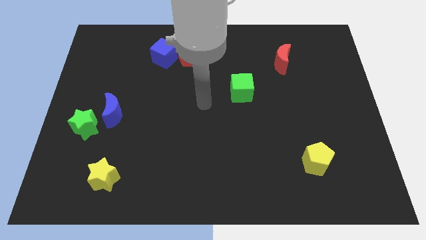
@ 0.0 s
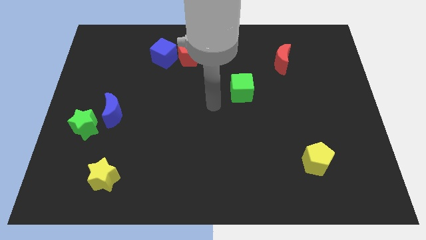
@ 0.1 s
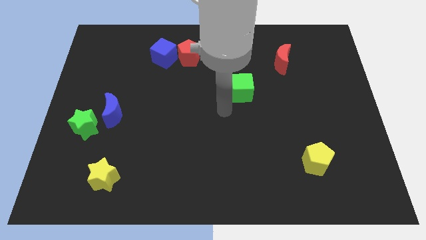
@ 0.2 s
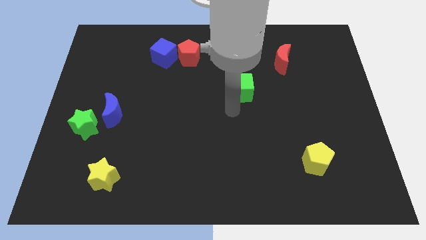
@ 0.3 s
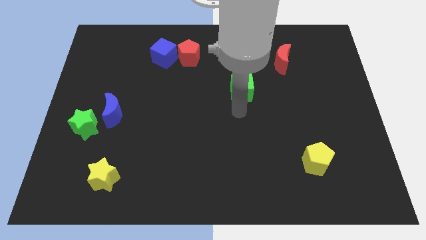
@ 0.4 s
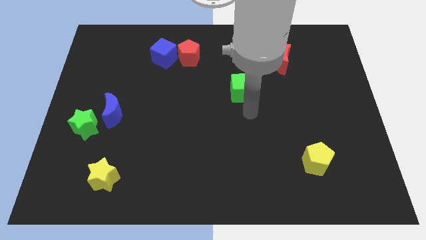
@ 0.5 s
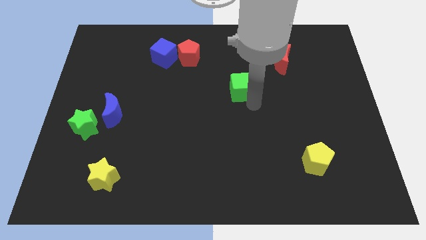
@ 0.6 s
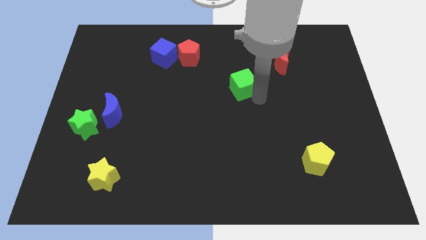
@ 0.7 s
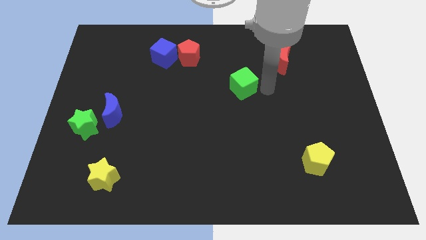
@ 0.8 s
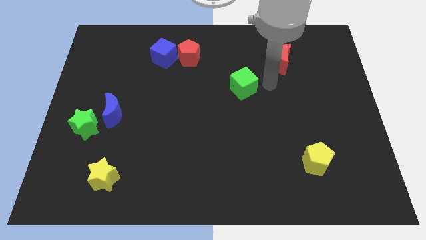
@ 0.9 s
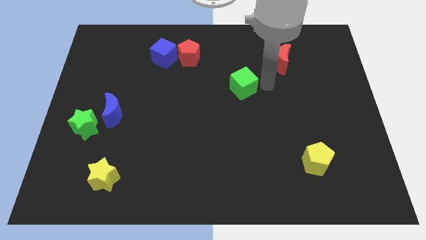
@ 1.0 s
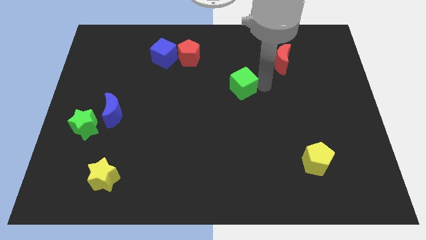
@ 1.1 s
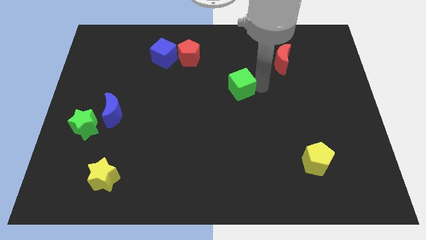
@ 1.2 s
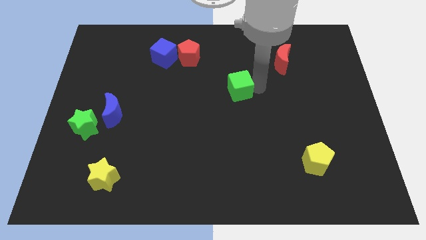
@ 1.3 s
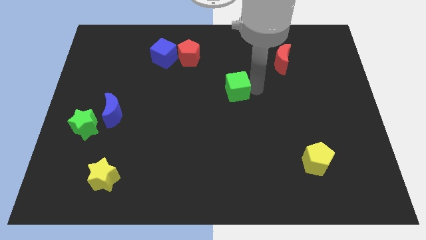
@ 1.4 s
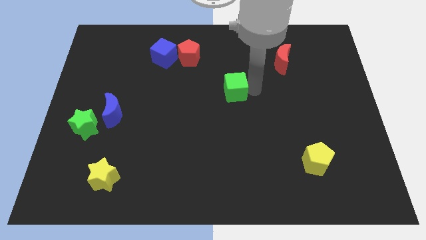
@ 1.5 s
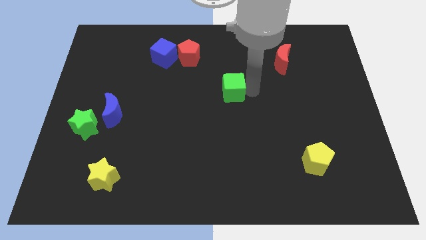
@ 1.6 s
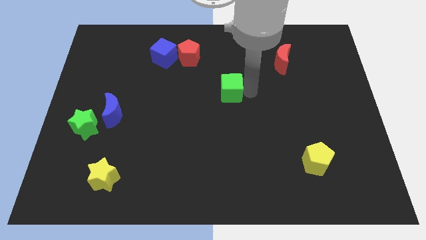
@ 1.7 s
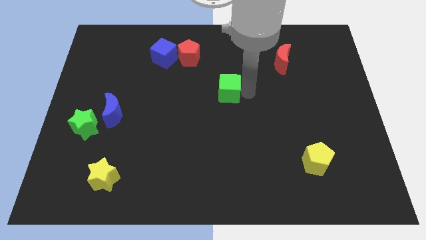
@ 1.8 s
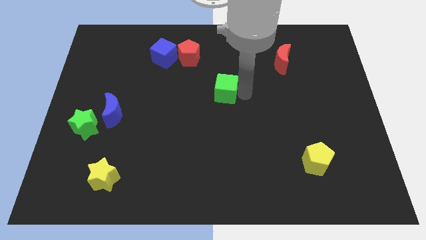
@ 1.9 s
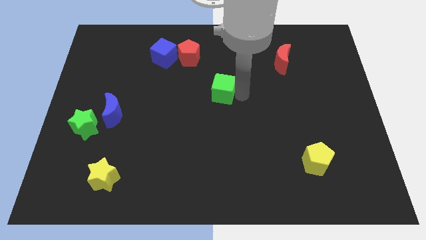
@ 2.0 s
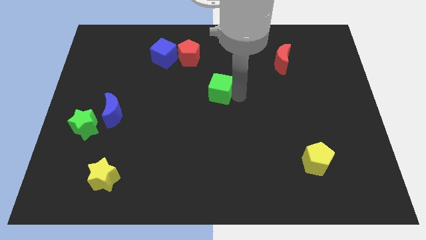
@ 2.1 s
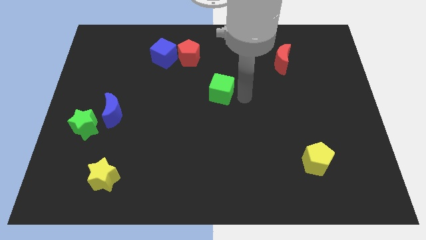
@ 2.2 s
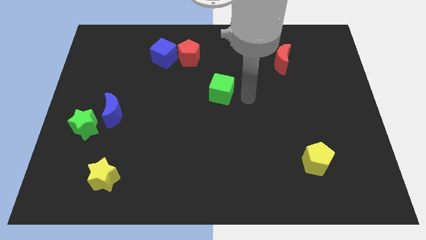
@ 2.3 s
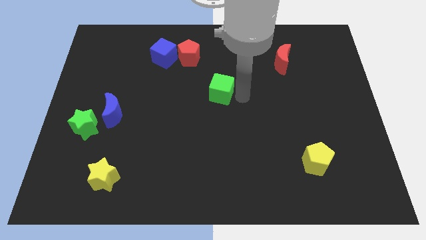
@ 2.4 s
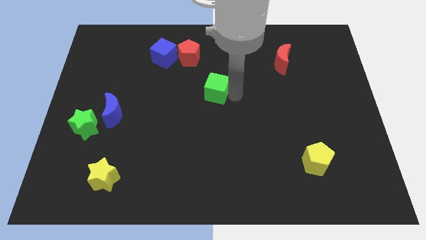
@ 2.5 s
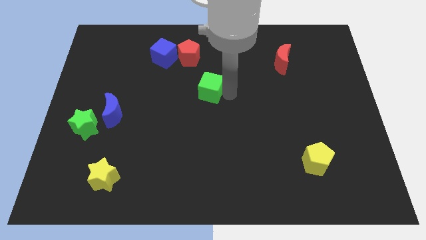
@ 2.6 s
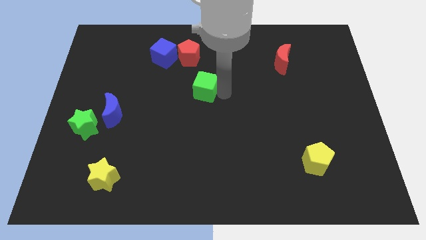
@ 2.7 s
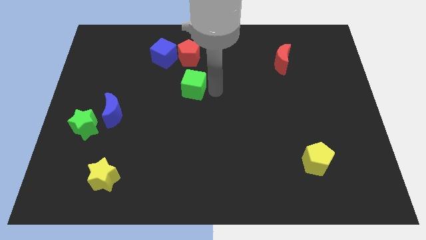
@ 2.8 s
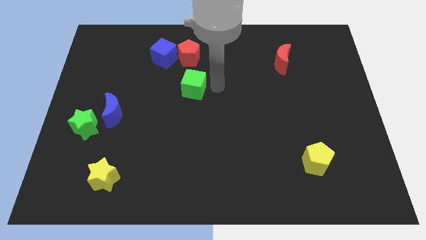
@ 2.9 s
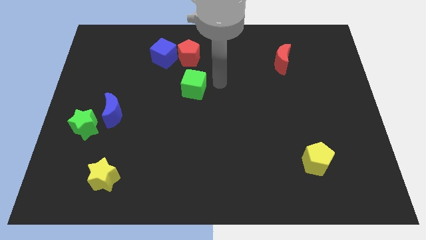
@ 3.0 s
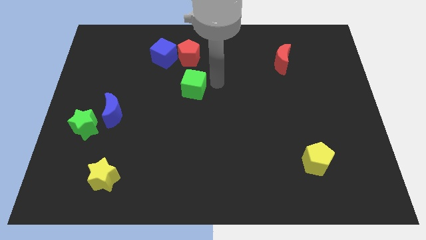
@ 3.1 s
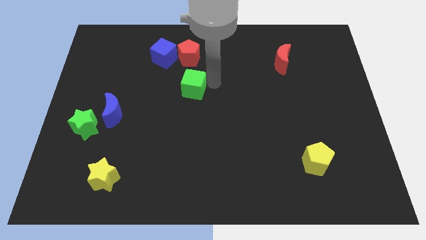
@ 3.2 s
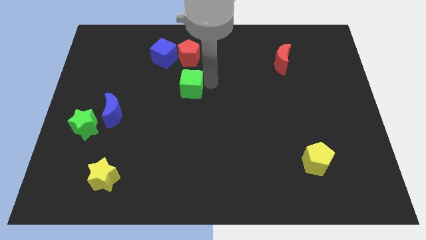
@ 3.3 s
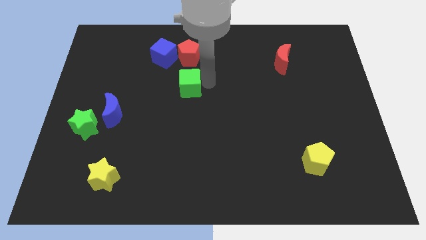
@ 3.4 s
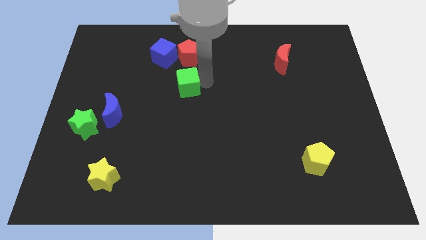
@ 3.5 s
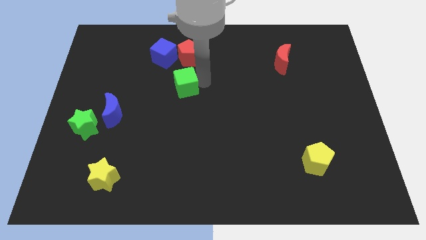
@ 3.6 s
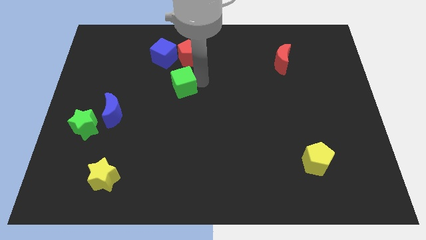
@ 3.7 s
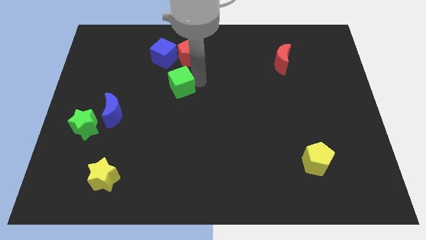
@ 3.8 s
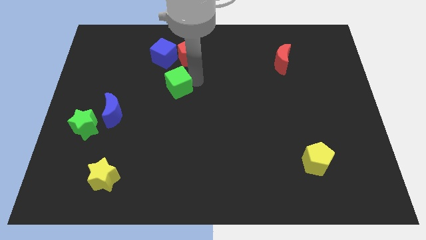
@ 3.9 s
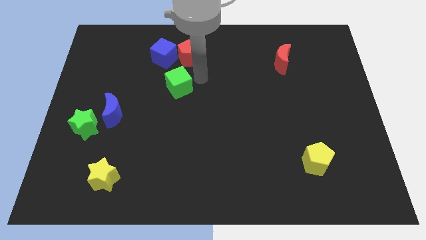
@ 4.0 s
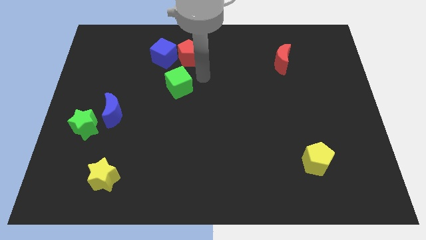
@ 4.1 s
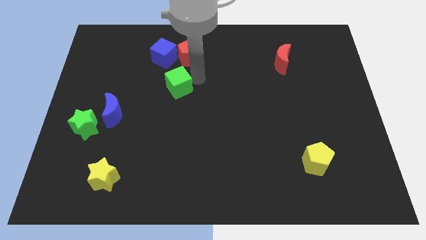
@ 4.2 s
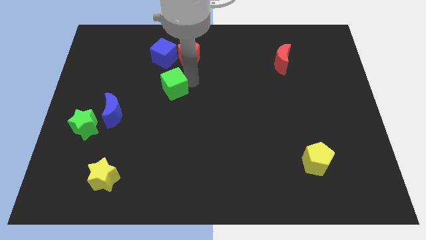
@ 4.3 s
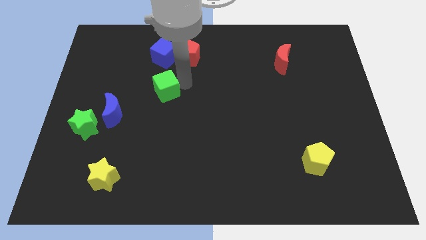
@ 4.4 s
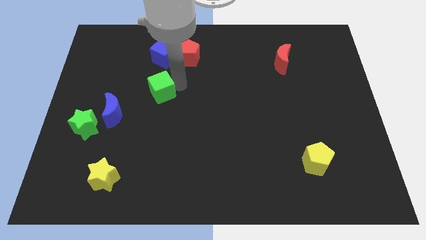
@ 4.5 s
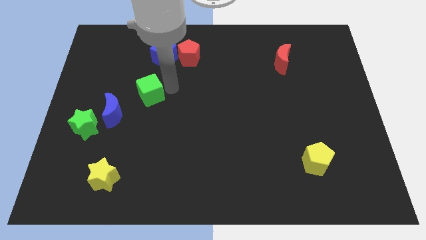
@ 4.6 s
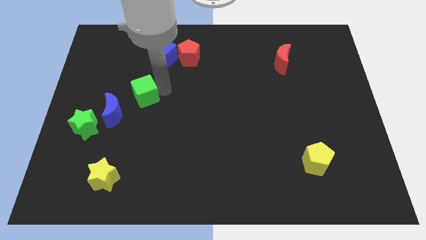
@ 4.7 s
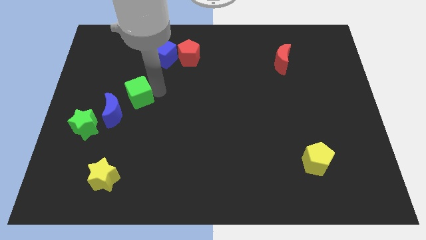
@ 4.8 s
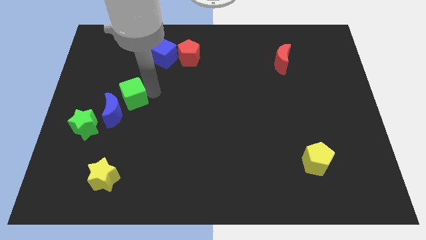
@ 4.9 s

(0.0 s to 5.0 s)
slide the green cube diagonally up and to the right of the green star

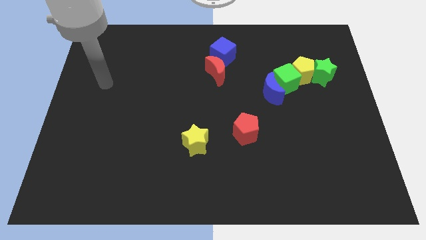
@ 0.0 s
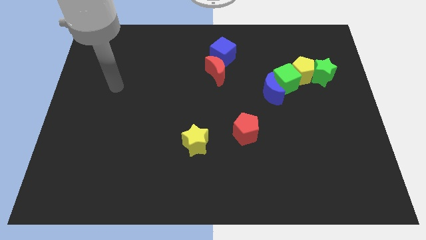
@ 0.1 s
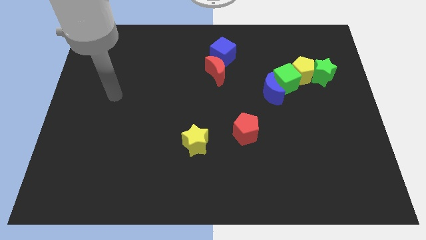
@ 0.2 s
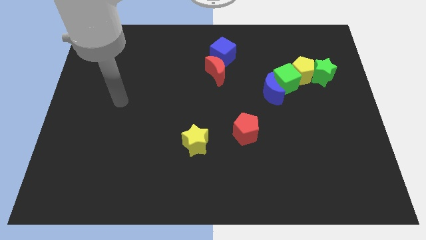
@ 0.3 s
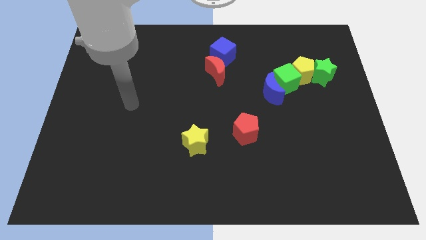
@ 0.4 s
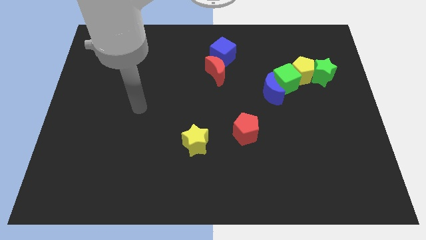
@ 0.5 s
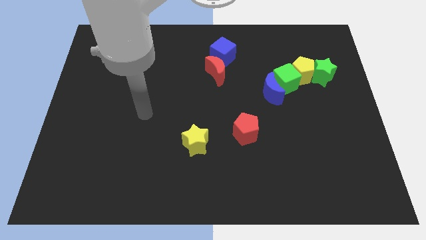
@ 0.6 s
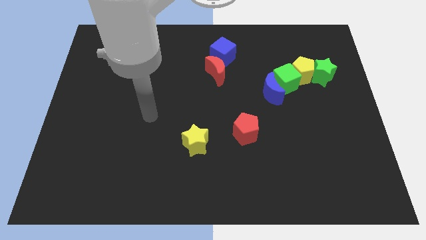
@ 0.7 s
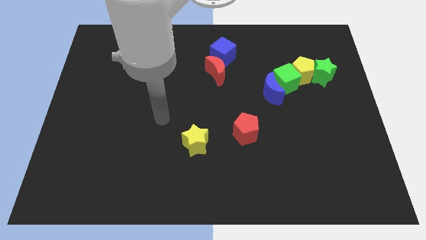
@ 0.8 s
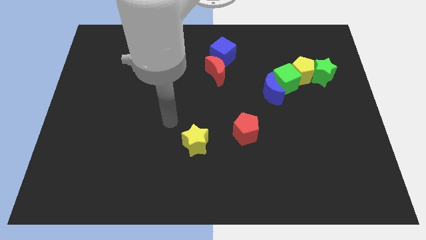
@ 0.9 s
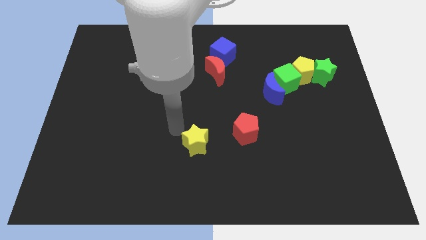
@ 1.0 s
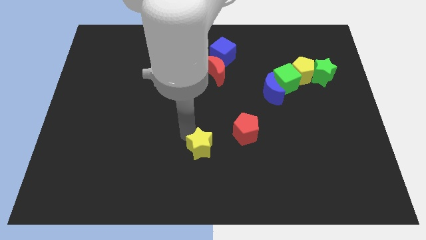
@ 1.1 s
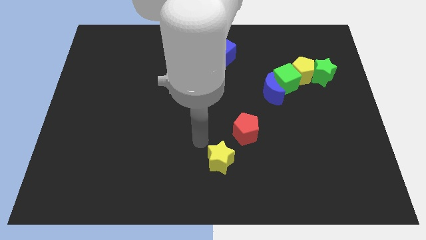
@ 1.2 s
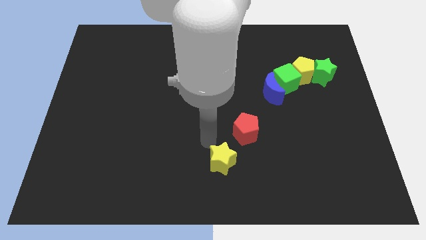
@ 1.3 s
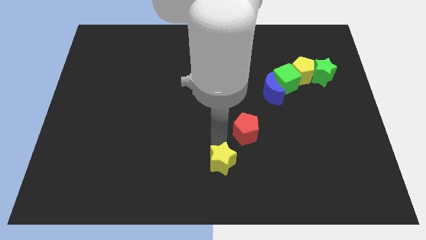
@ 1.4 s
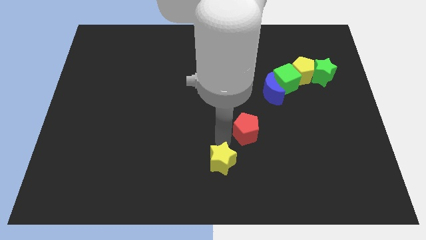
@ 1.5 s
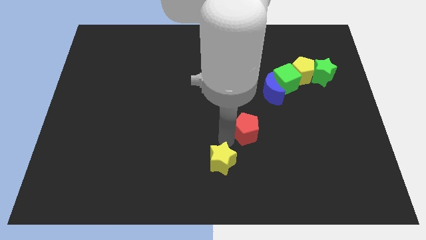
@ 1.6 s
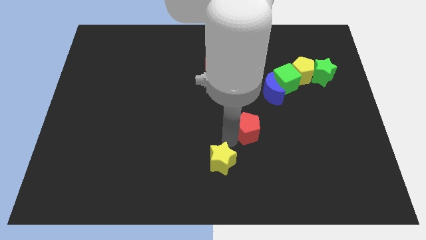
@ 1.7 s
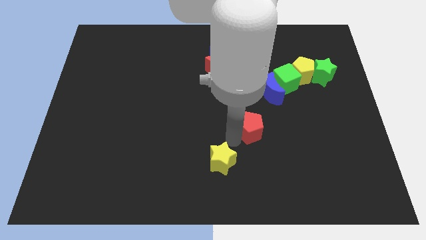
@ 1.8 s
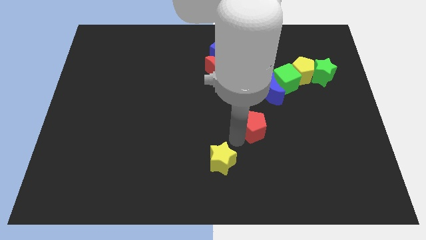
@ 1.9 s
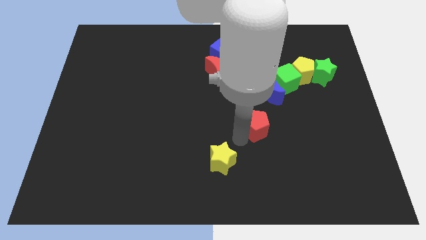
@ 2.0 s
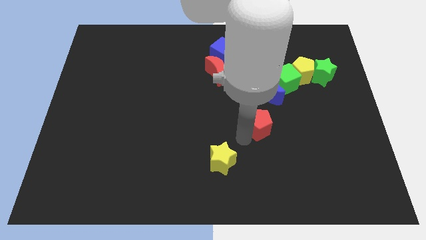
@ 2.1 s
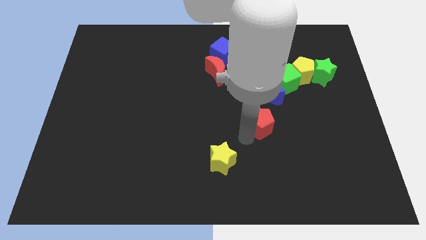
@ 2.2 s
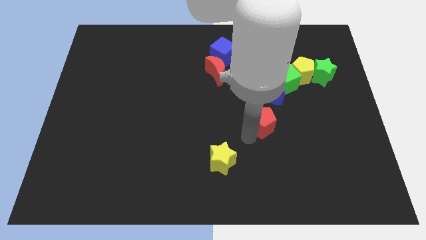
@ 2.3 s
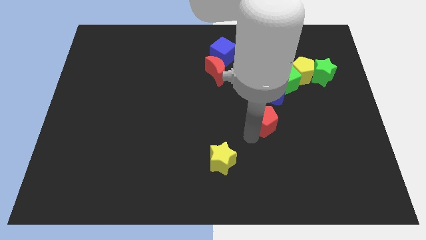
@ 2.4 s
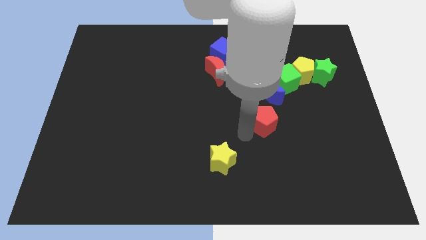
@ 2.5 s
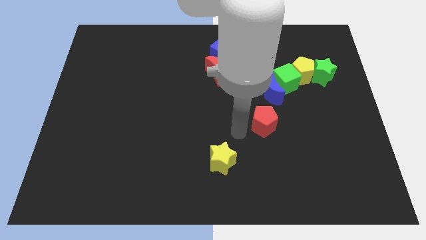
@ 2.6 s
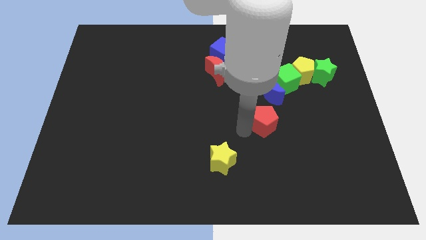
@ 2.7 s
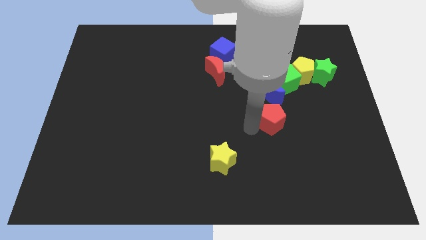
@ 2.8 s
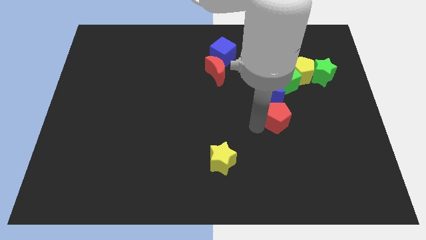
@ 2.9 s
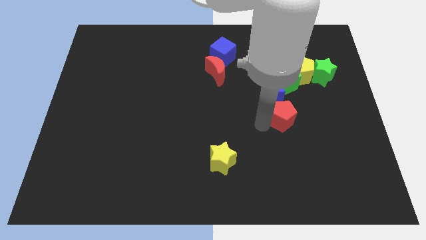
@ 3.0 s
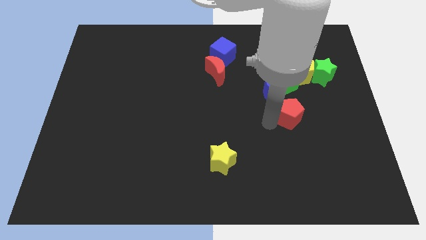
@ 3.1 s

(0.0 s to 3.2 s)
move the red pentagon to the bottom side of the yellow pentagon
